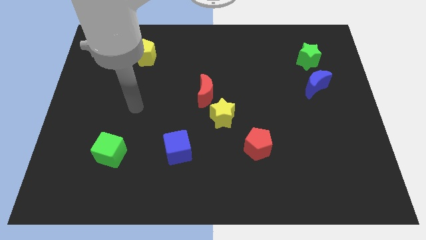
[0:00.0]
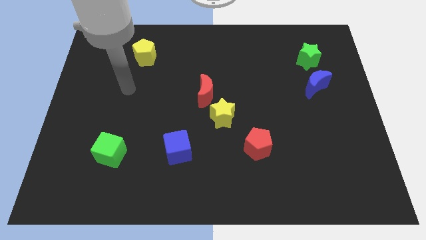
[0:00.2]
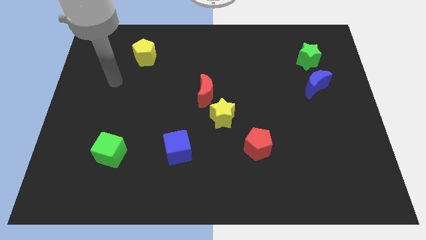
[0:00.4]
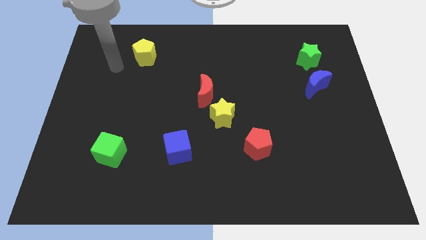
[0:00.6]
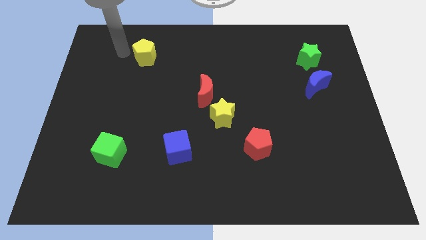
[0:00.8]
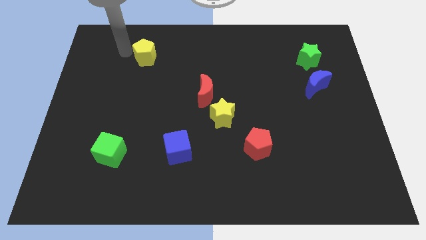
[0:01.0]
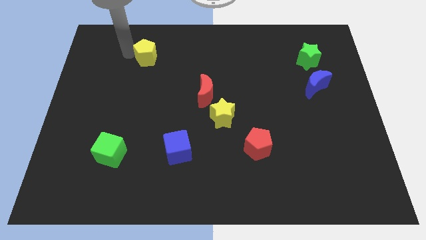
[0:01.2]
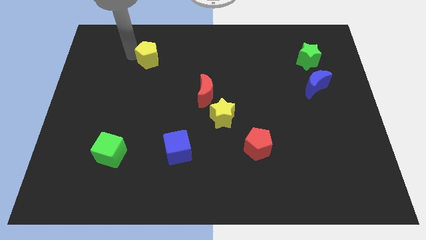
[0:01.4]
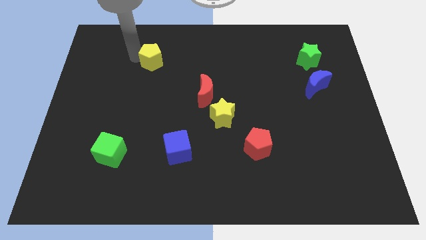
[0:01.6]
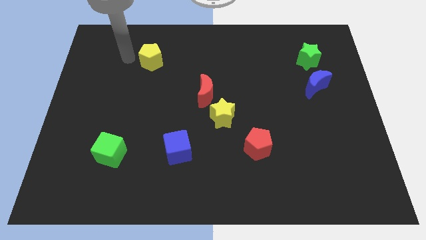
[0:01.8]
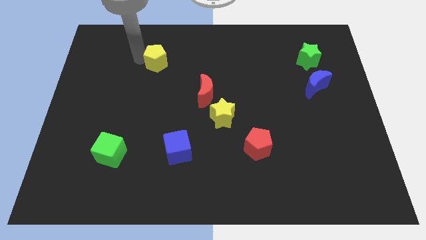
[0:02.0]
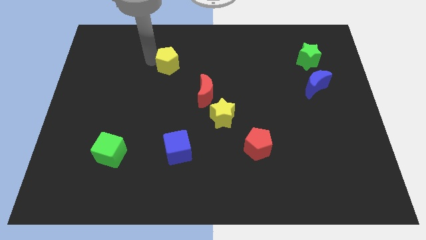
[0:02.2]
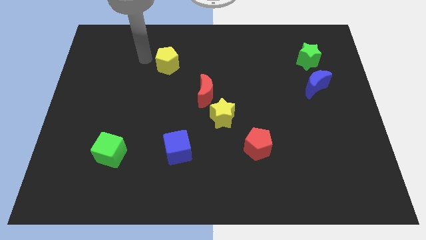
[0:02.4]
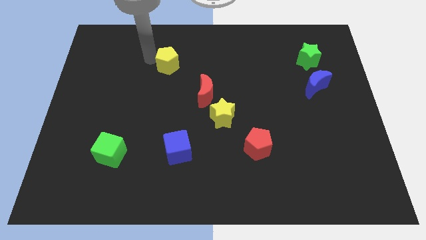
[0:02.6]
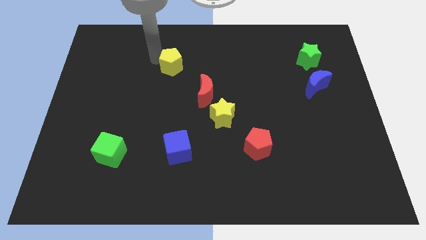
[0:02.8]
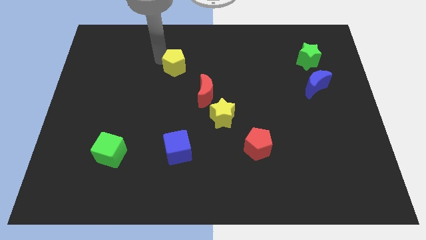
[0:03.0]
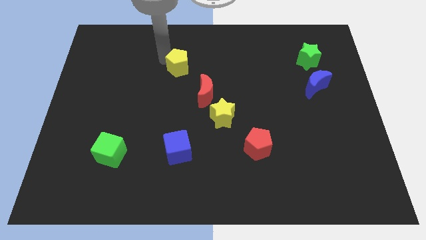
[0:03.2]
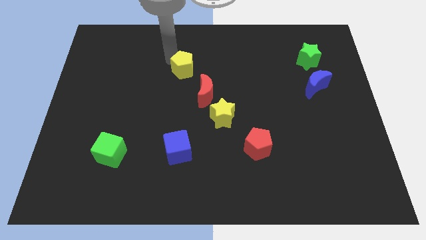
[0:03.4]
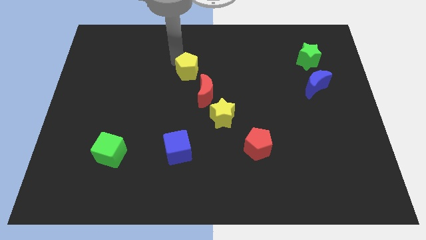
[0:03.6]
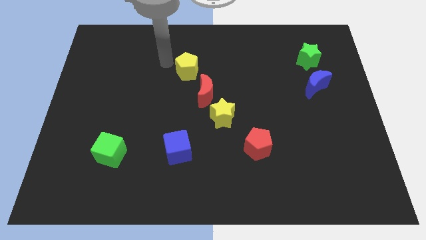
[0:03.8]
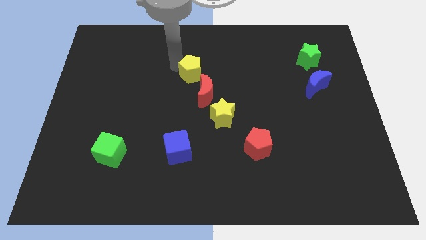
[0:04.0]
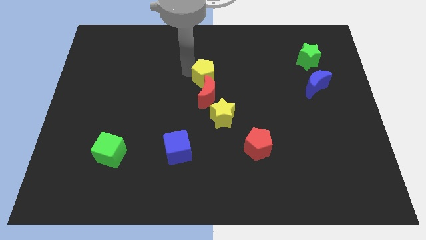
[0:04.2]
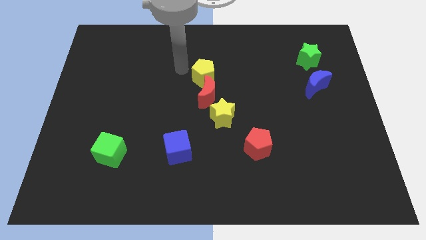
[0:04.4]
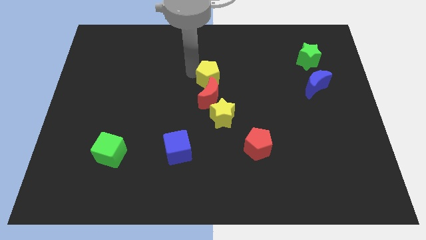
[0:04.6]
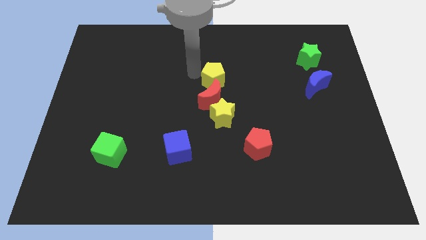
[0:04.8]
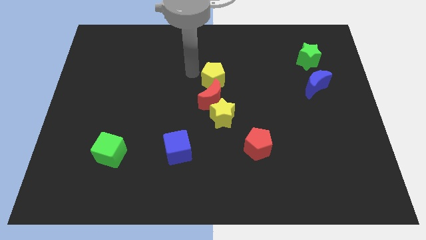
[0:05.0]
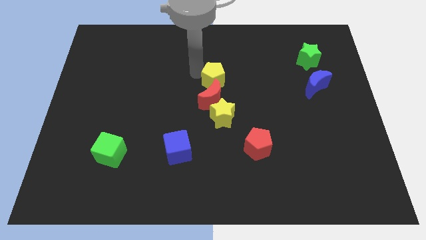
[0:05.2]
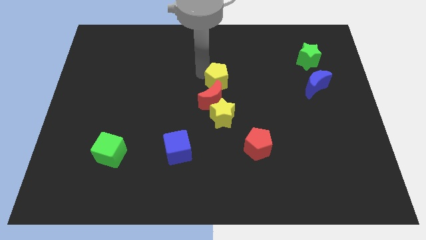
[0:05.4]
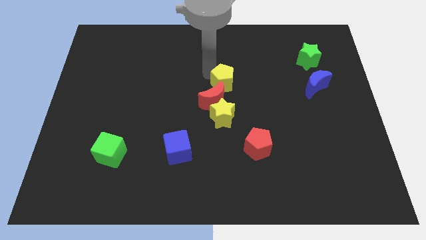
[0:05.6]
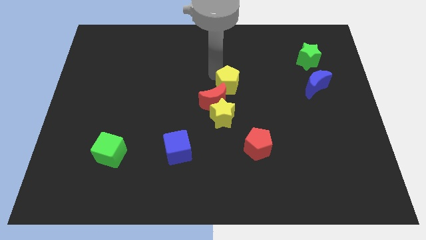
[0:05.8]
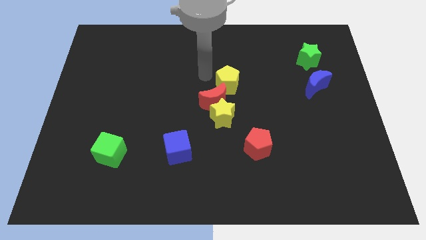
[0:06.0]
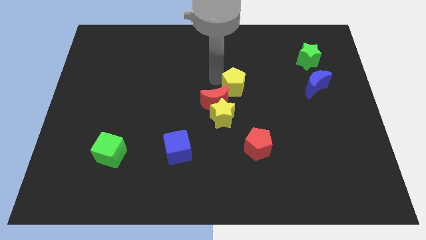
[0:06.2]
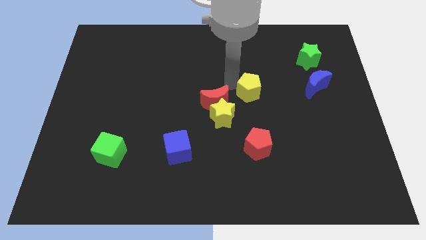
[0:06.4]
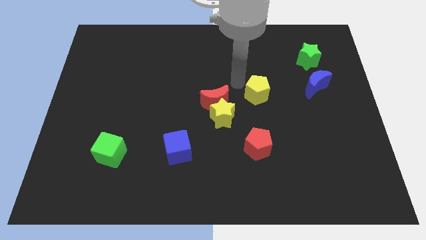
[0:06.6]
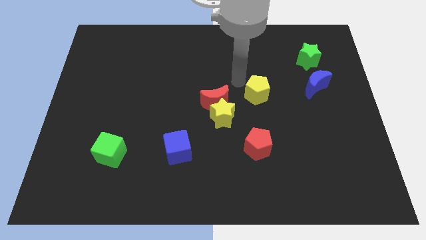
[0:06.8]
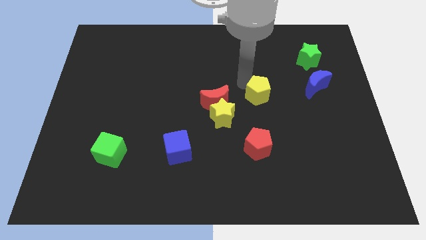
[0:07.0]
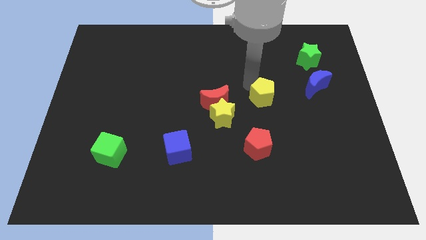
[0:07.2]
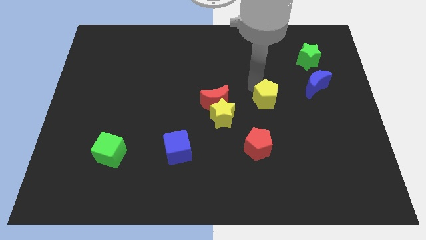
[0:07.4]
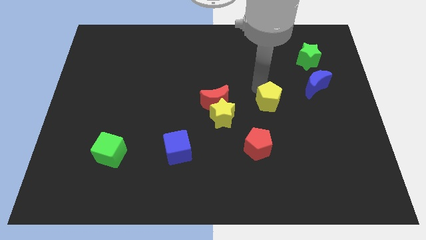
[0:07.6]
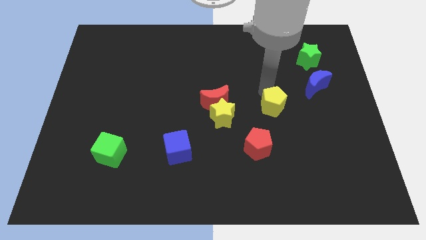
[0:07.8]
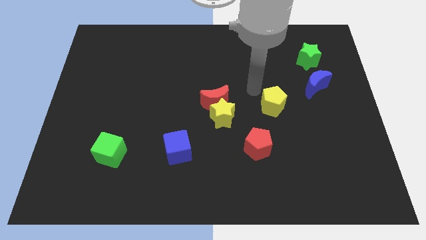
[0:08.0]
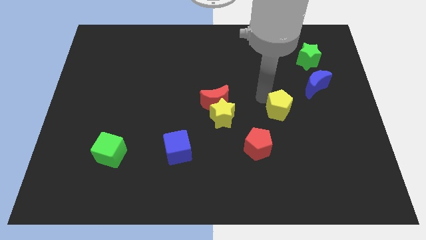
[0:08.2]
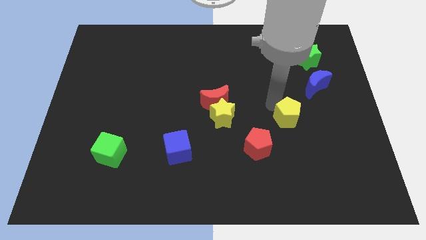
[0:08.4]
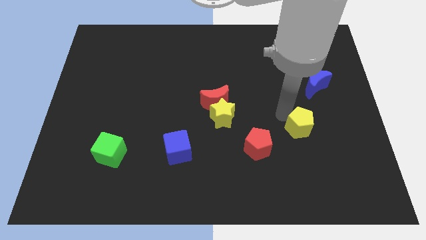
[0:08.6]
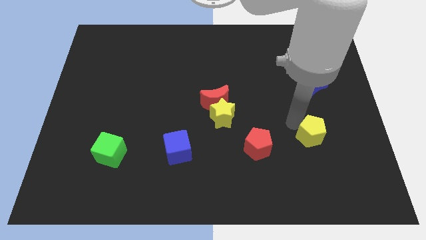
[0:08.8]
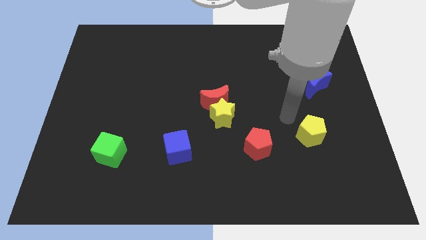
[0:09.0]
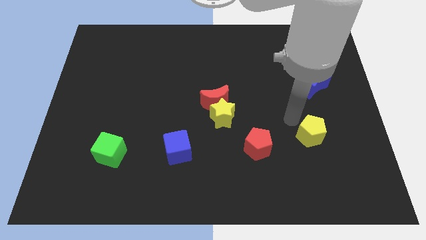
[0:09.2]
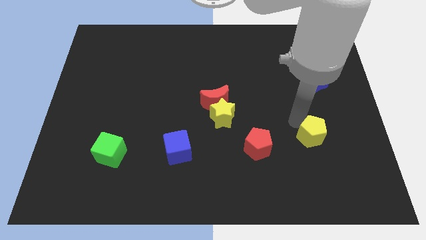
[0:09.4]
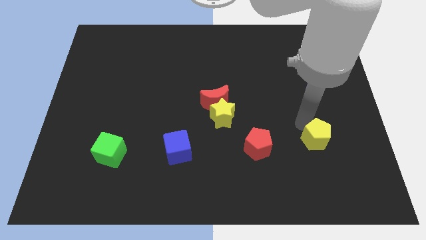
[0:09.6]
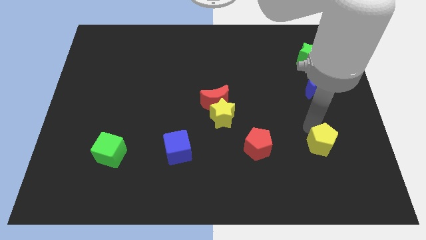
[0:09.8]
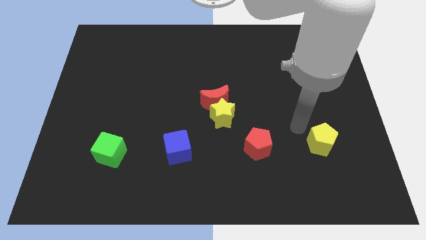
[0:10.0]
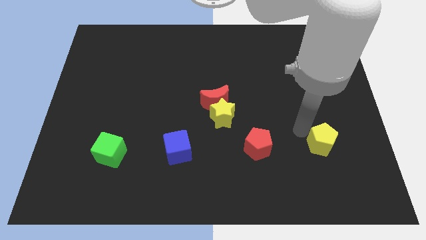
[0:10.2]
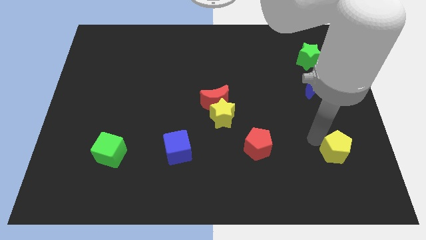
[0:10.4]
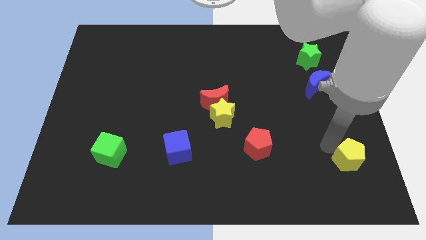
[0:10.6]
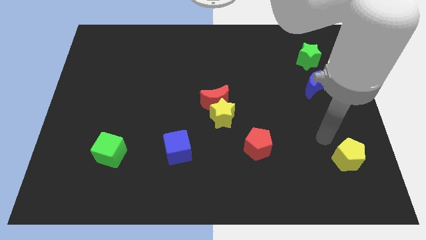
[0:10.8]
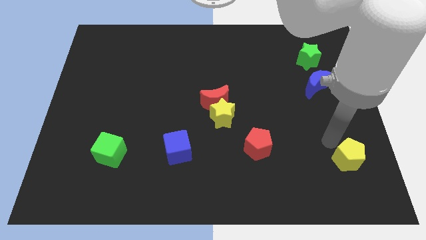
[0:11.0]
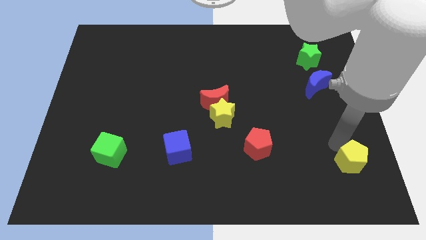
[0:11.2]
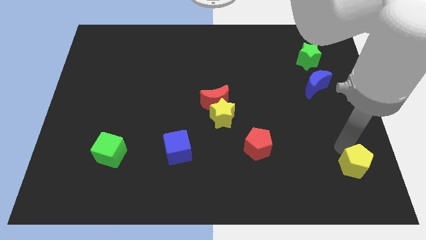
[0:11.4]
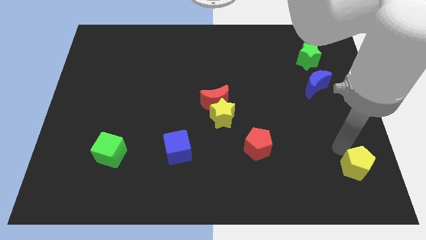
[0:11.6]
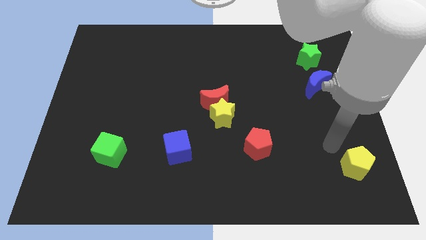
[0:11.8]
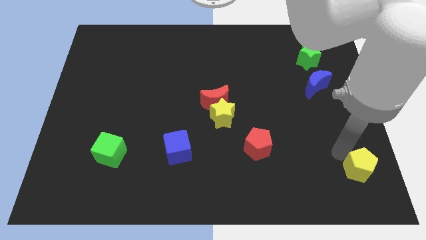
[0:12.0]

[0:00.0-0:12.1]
put the yellow pentagon to the bottom right

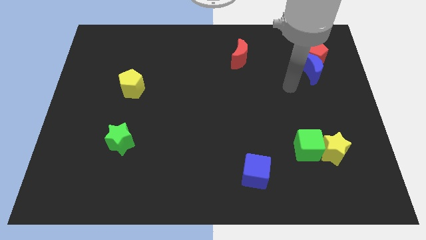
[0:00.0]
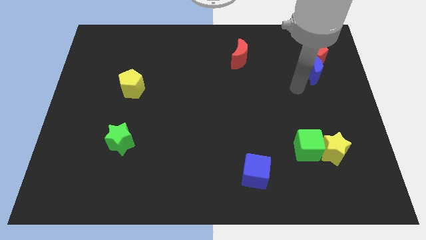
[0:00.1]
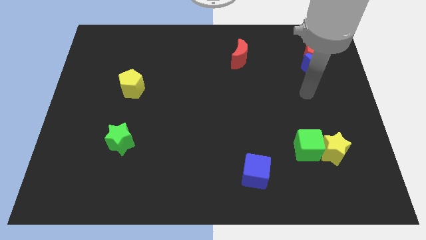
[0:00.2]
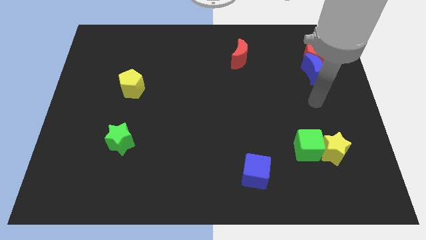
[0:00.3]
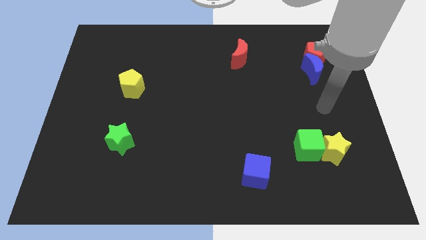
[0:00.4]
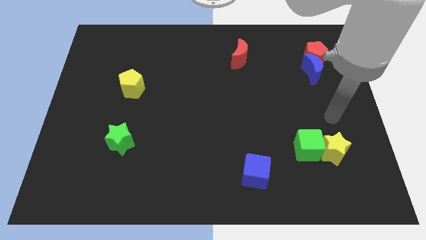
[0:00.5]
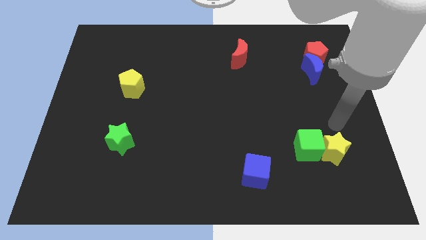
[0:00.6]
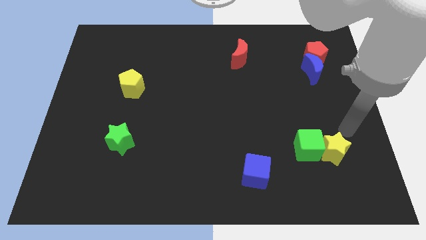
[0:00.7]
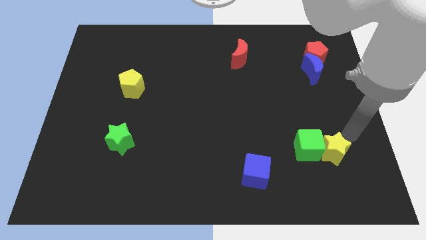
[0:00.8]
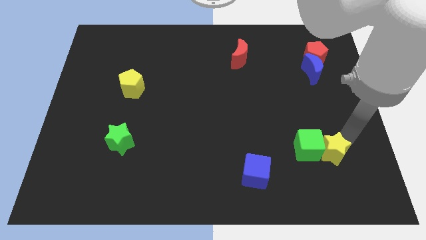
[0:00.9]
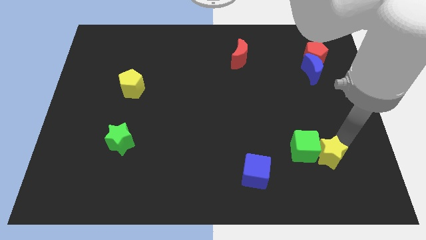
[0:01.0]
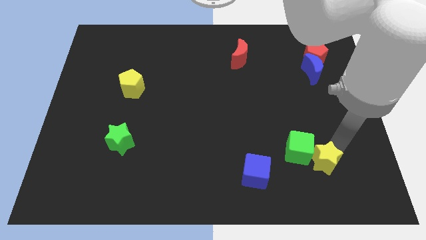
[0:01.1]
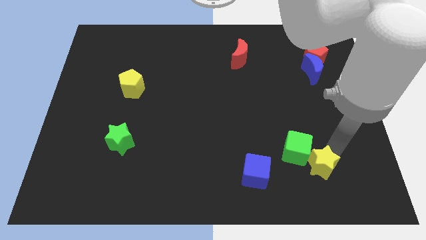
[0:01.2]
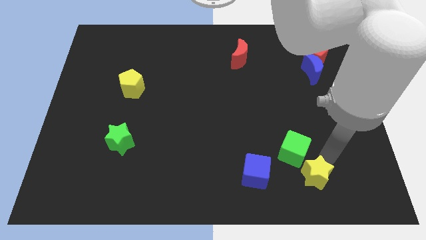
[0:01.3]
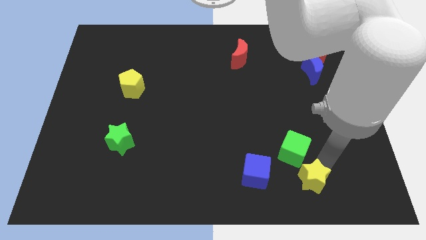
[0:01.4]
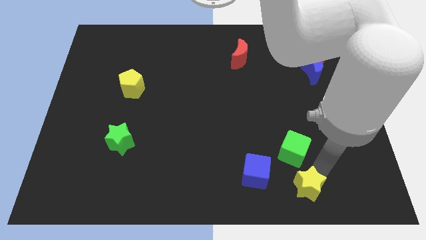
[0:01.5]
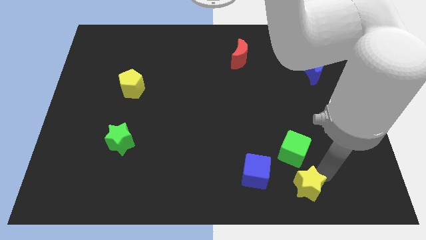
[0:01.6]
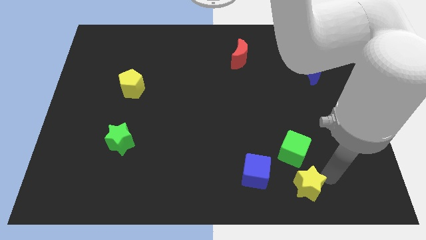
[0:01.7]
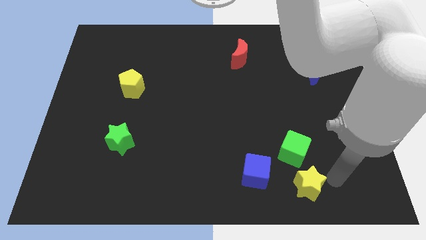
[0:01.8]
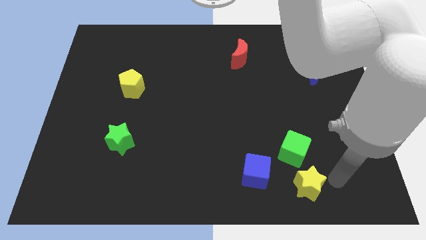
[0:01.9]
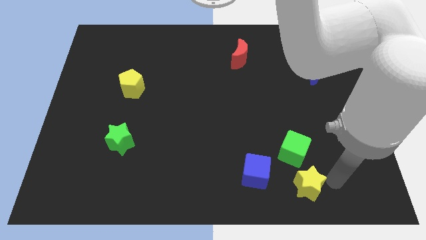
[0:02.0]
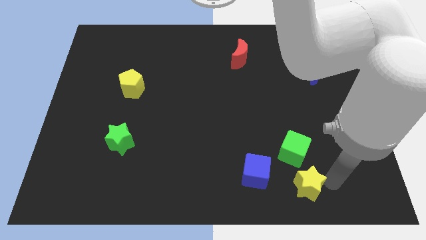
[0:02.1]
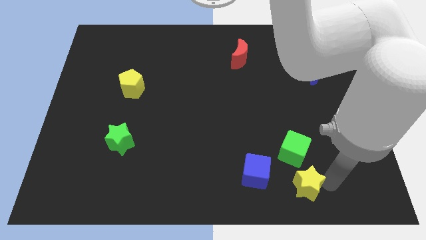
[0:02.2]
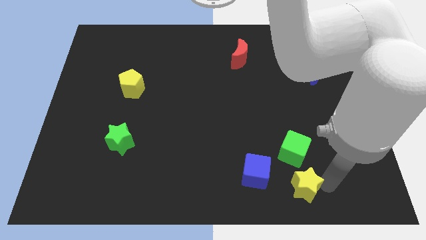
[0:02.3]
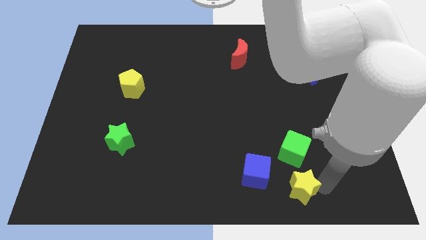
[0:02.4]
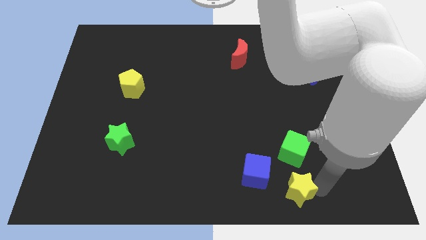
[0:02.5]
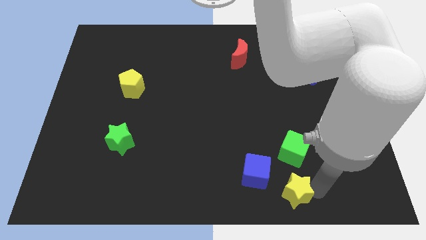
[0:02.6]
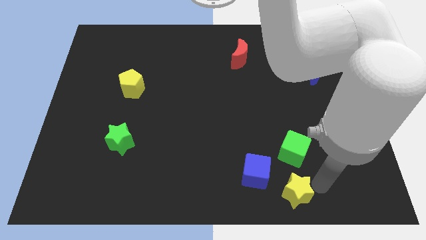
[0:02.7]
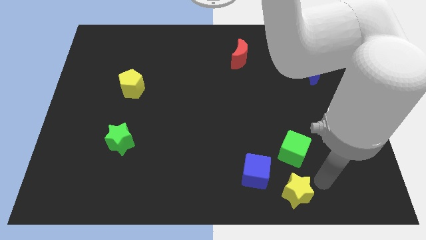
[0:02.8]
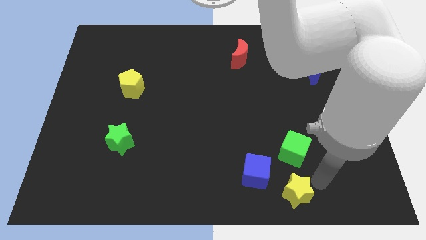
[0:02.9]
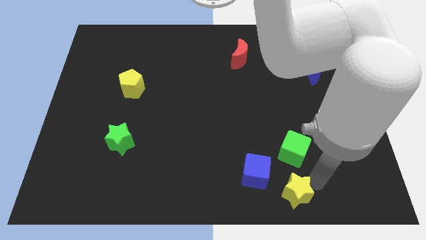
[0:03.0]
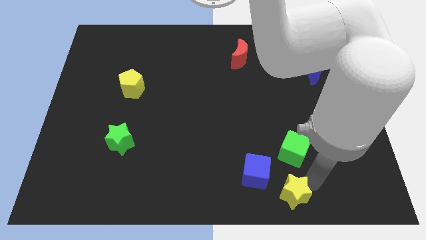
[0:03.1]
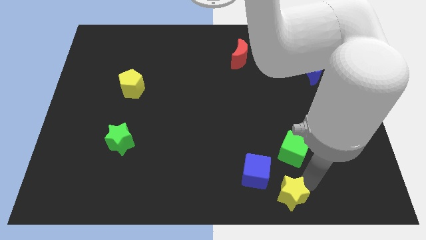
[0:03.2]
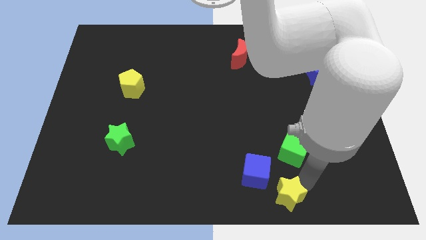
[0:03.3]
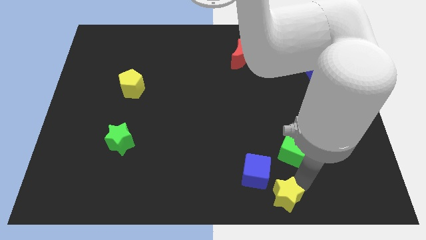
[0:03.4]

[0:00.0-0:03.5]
move the yellow star to the bottom
